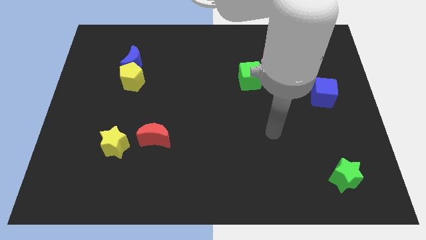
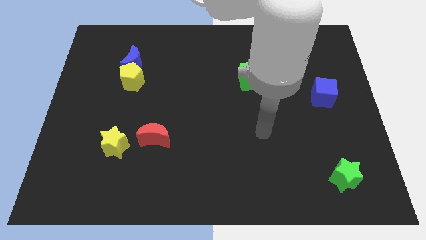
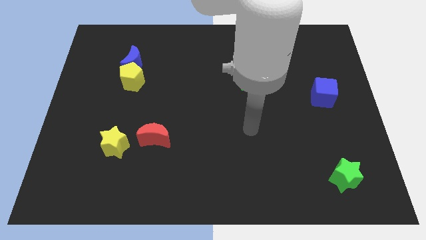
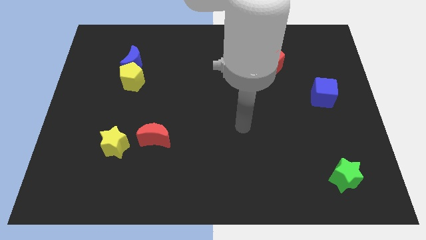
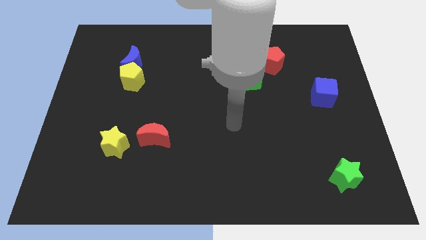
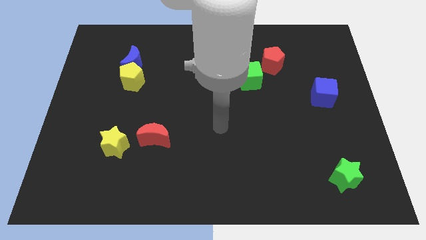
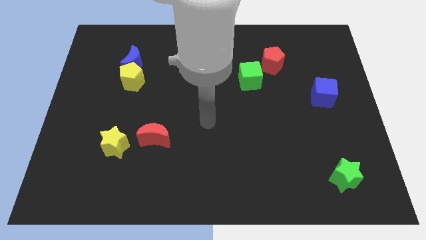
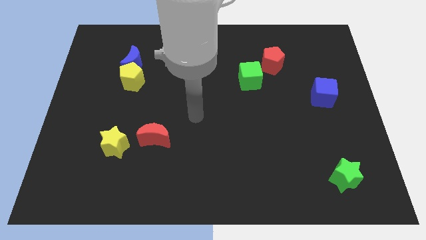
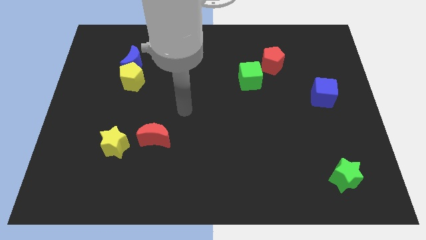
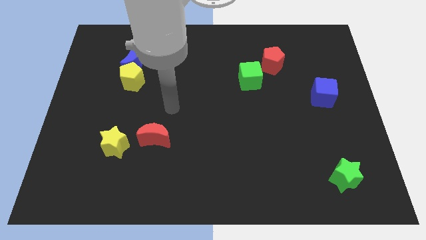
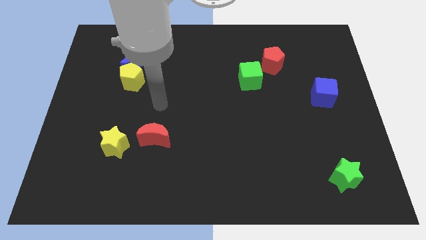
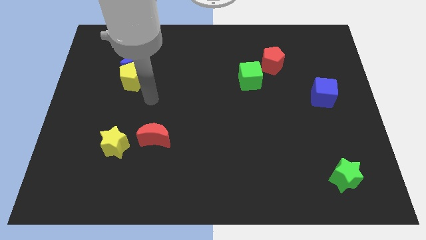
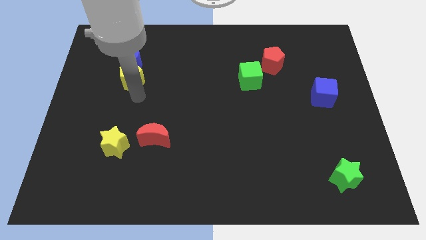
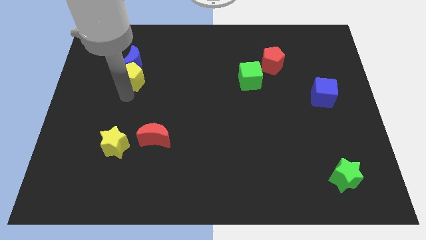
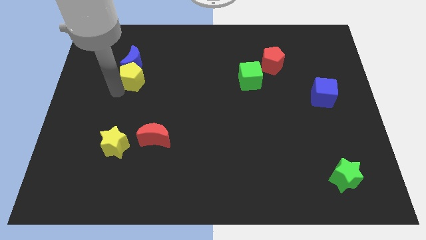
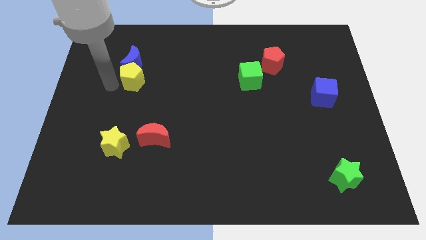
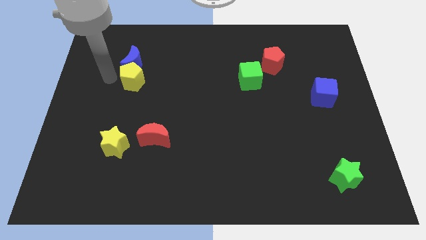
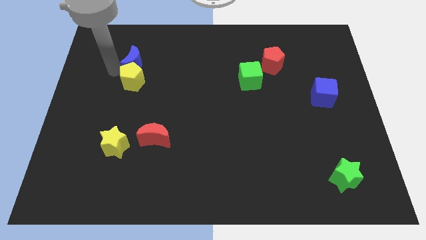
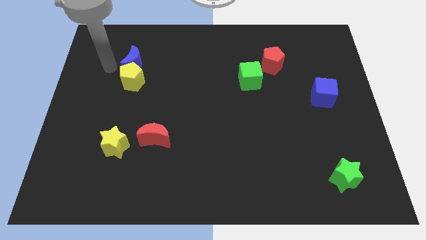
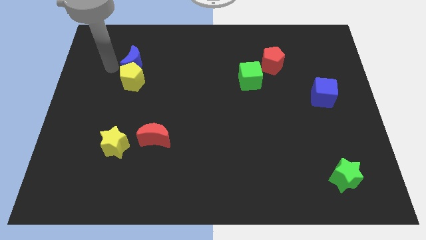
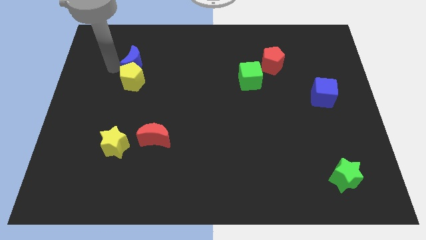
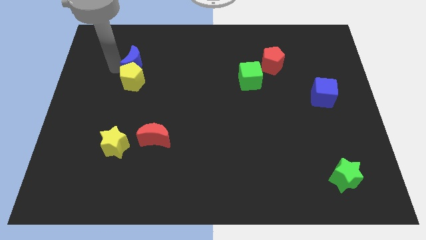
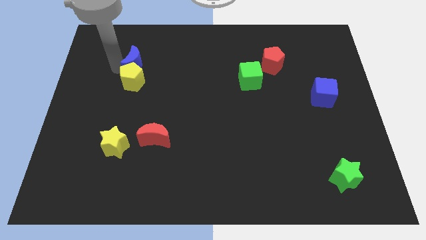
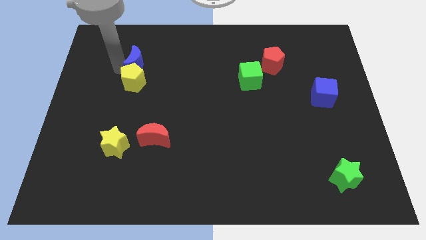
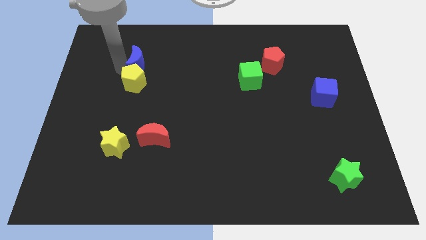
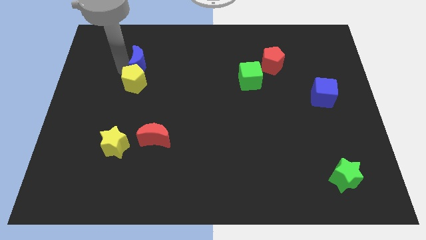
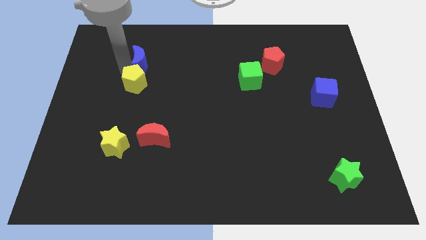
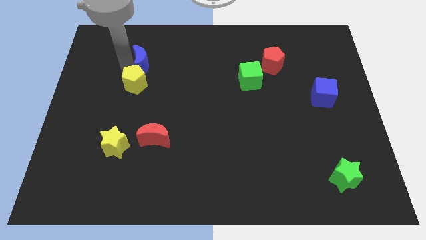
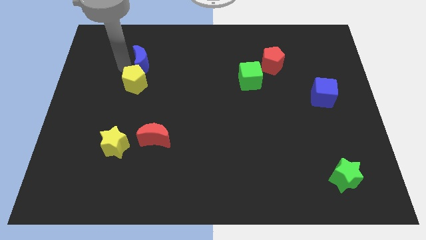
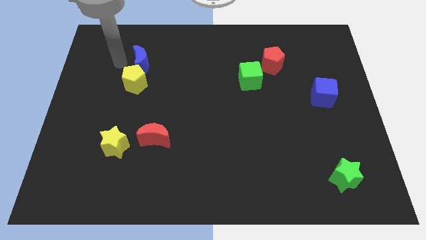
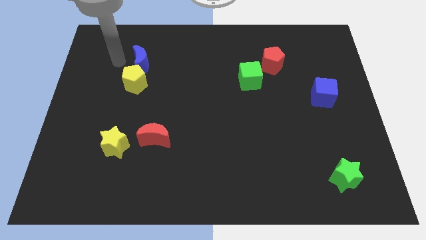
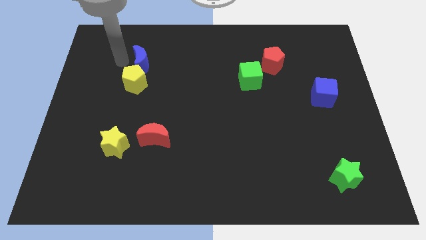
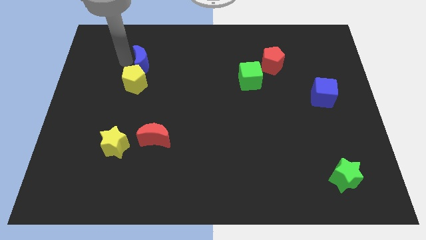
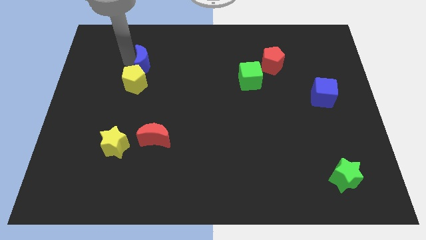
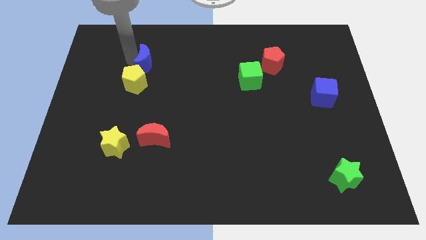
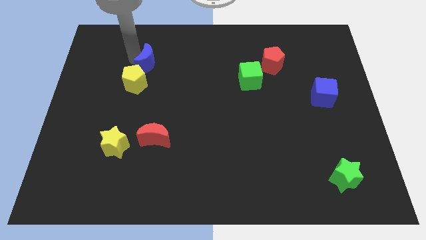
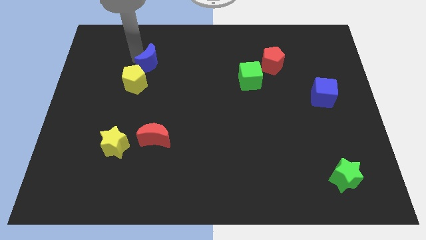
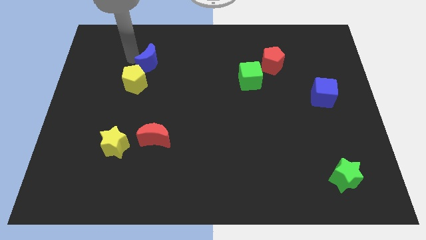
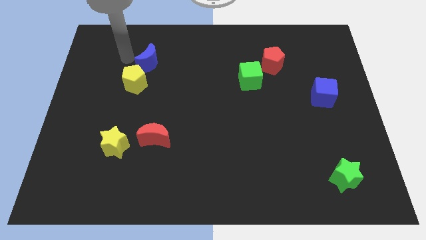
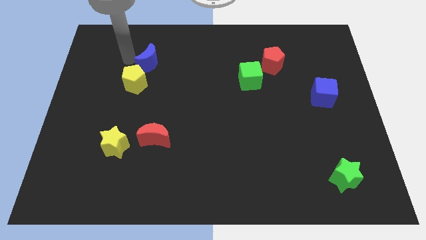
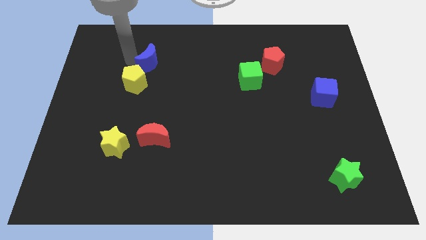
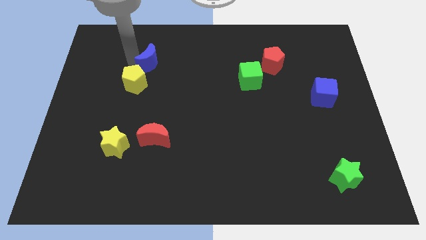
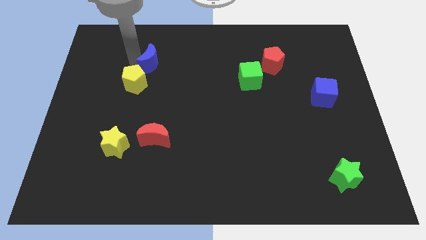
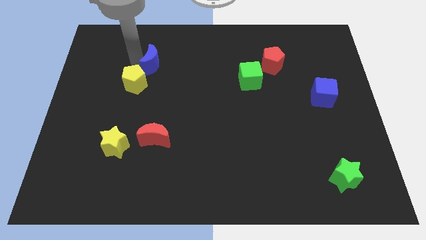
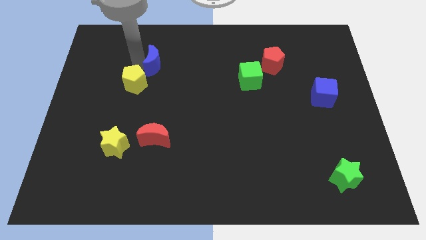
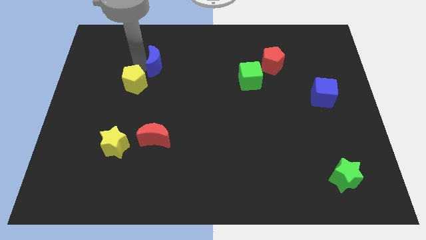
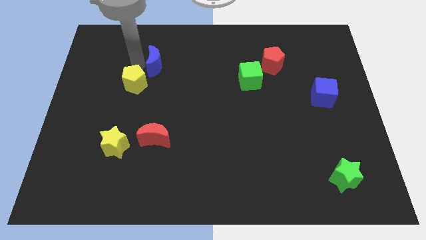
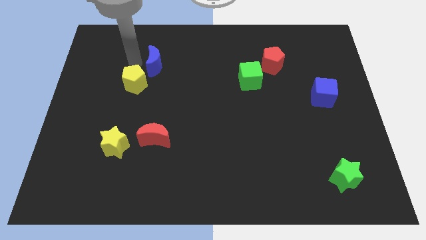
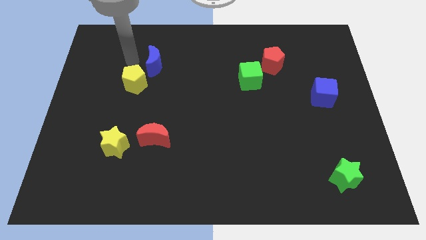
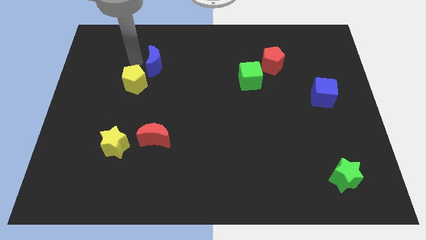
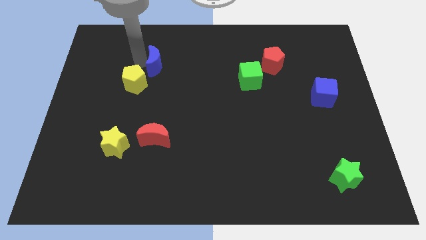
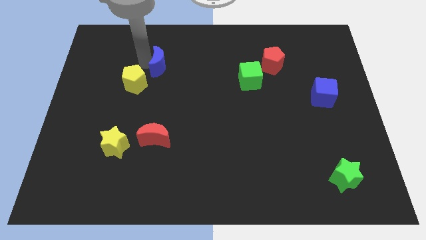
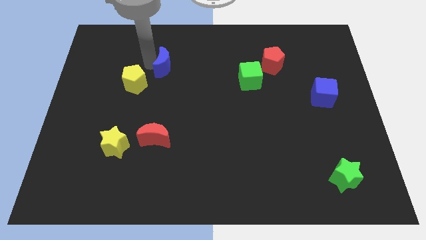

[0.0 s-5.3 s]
push the blue moon a little bit right

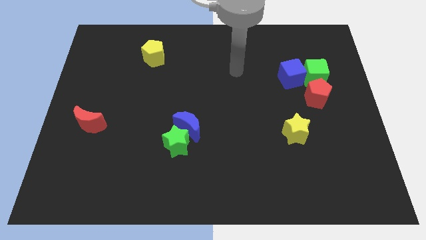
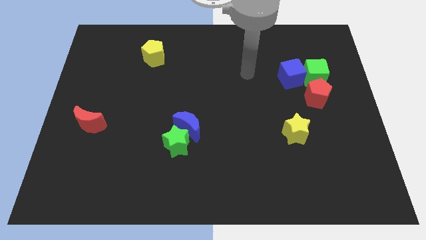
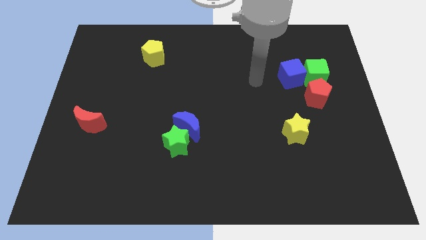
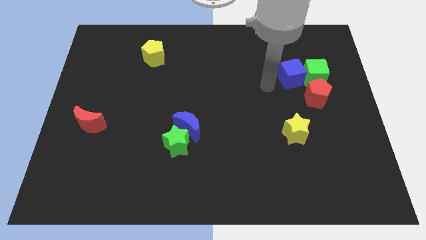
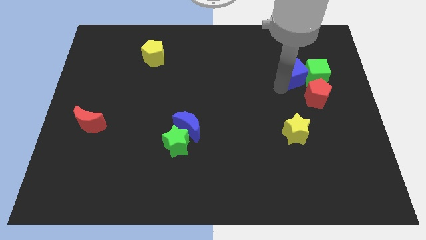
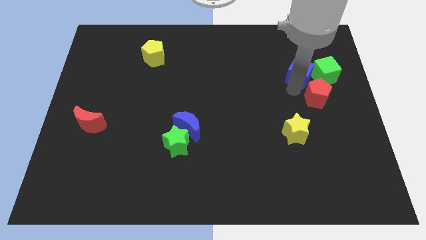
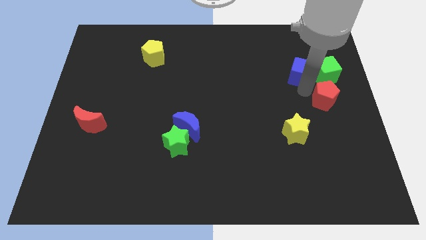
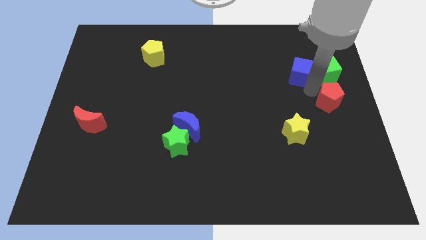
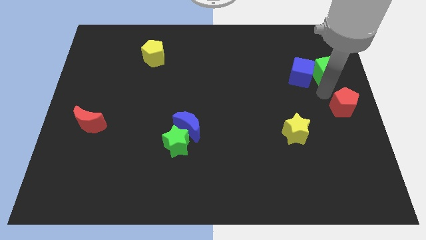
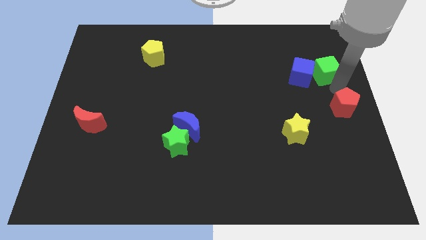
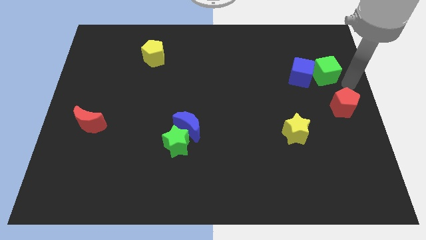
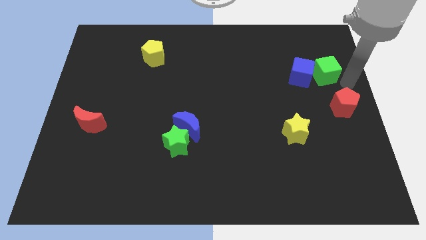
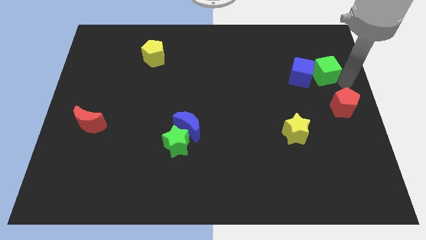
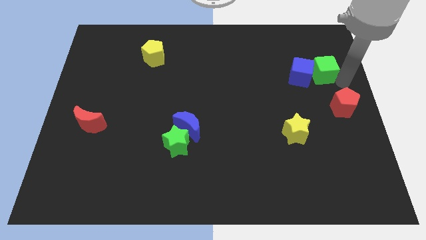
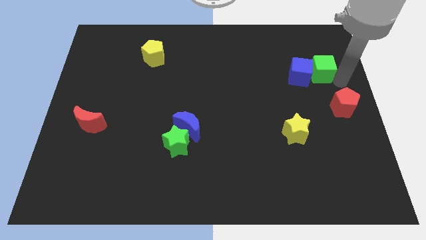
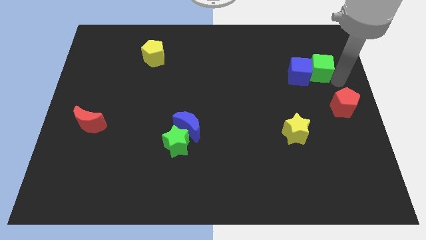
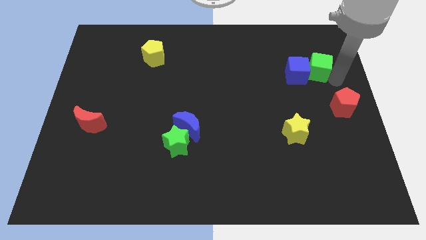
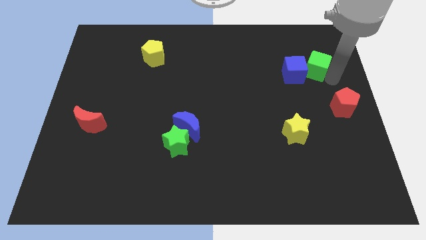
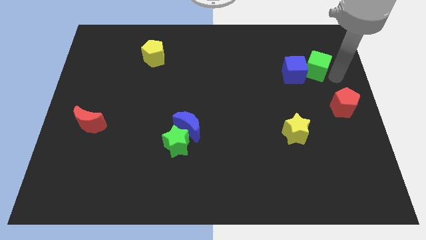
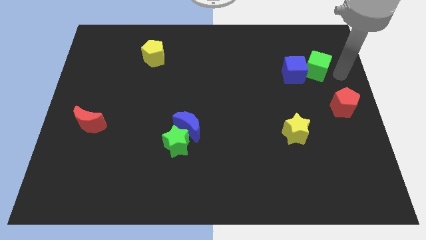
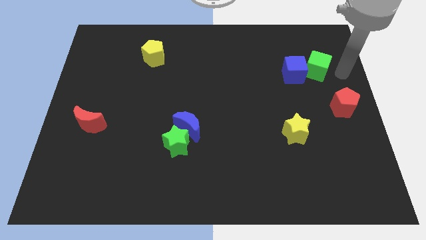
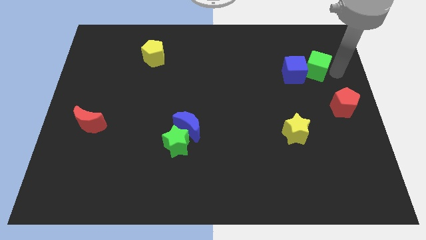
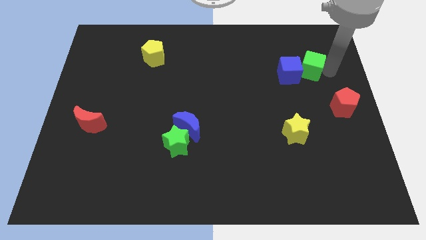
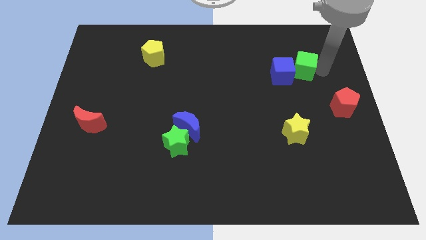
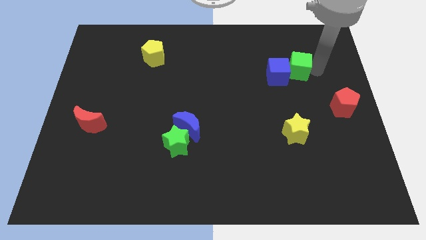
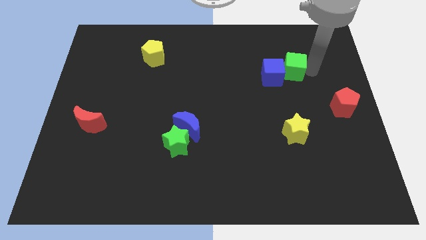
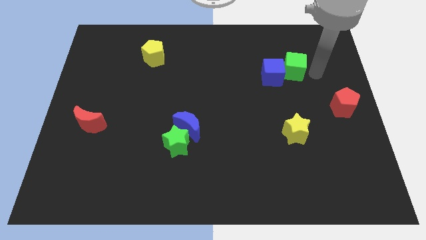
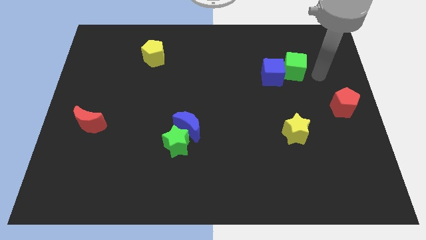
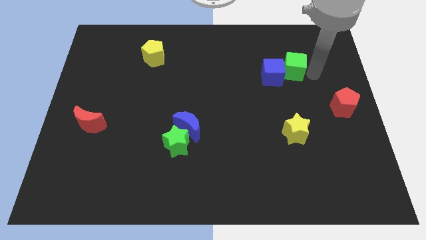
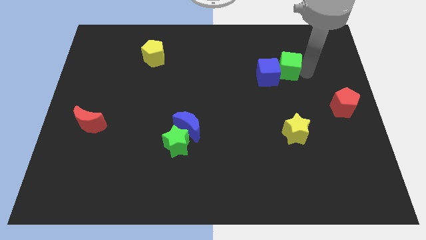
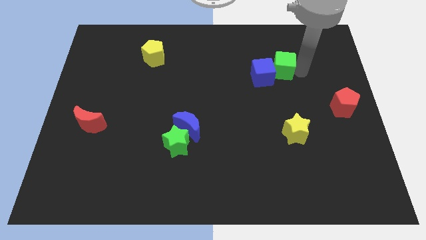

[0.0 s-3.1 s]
slightly push the green cube to the left
